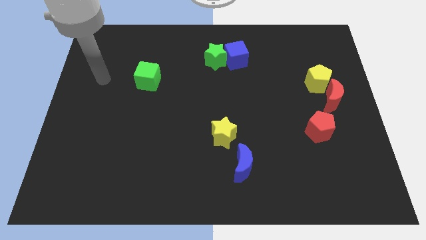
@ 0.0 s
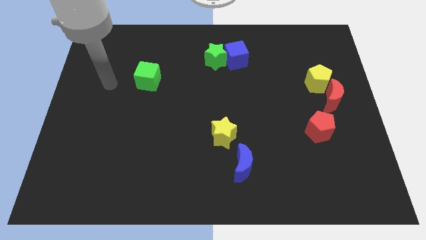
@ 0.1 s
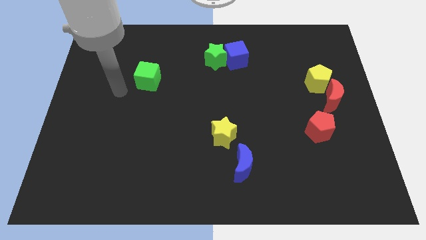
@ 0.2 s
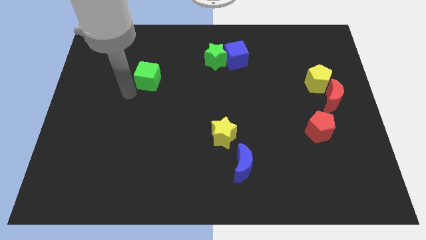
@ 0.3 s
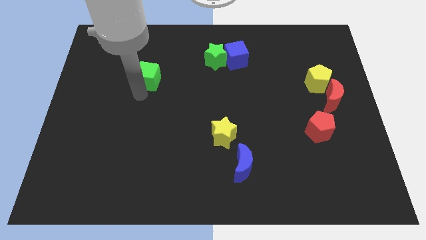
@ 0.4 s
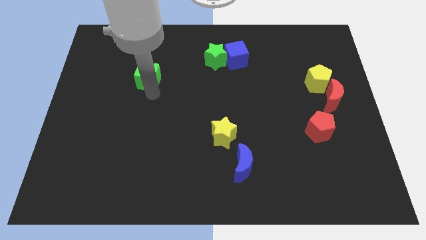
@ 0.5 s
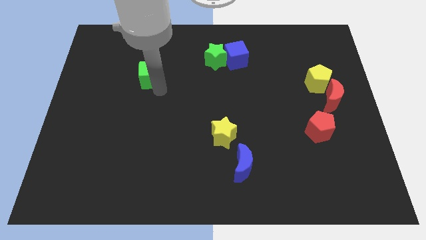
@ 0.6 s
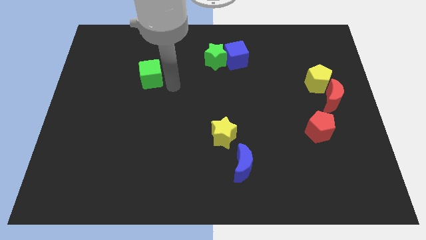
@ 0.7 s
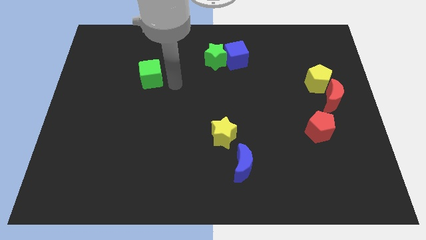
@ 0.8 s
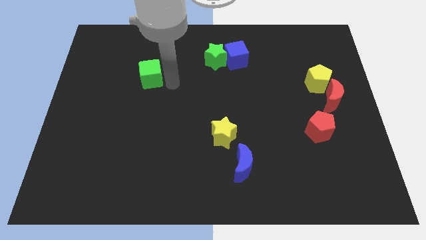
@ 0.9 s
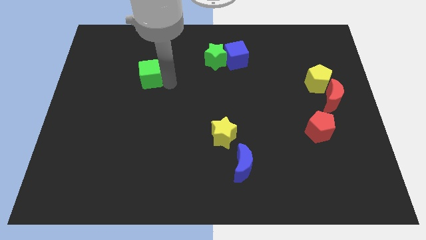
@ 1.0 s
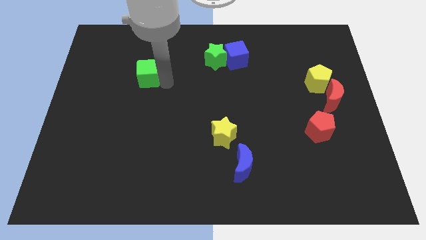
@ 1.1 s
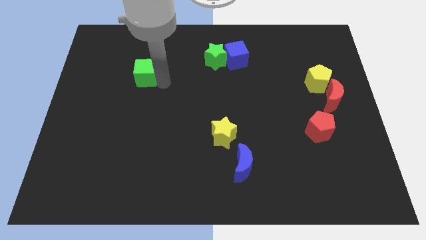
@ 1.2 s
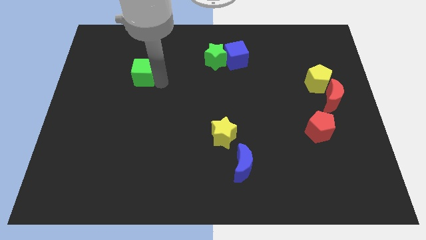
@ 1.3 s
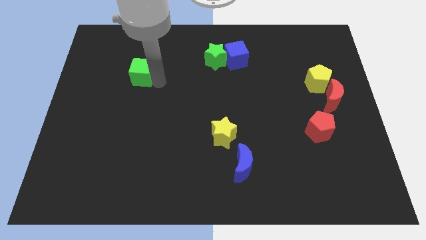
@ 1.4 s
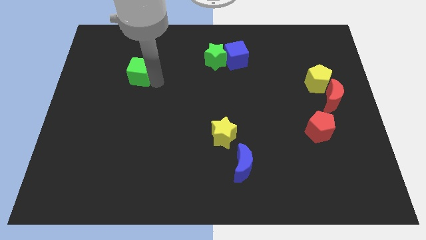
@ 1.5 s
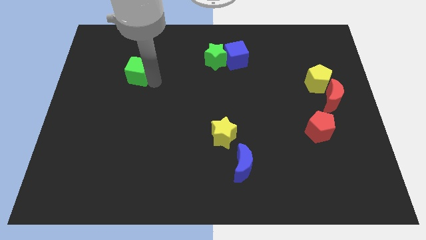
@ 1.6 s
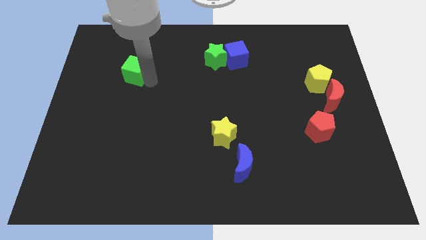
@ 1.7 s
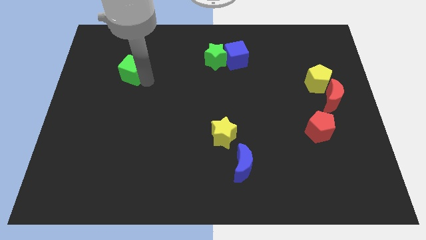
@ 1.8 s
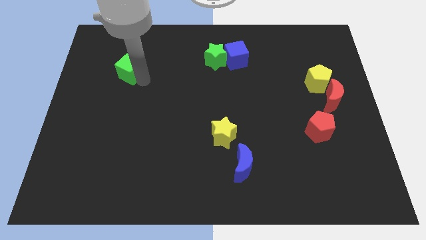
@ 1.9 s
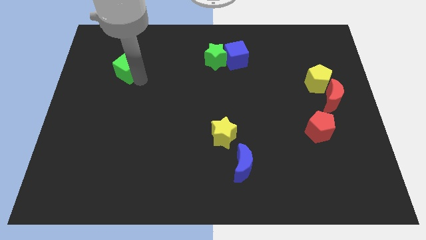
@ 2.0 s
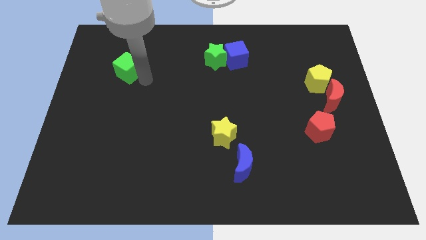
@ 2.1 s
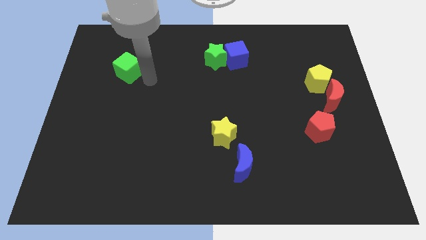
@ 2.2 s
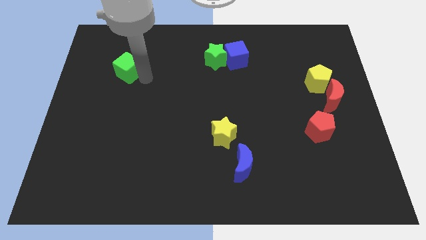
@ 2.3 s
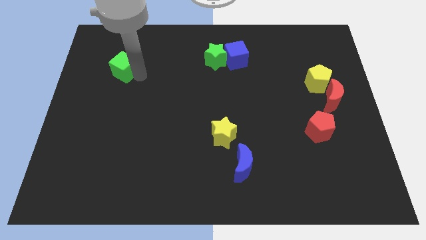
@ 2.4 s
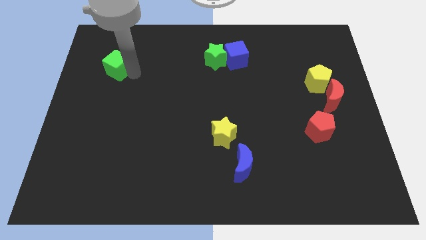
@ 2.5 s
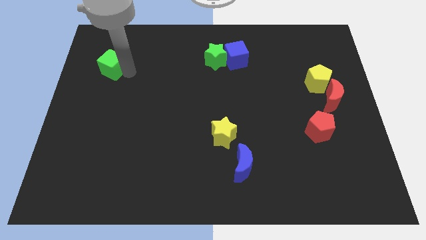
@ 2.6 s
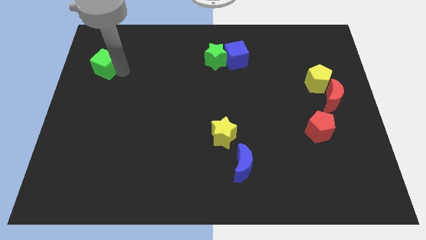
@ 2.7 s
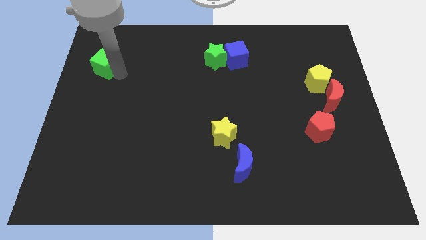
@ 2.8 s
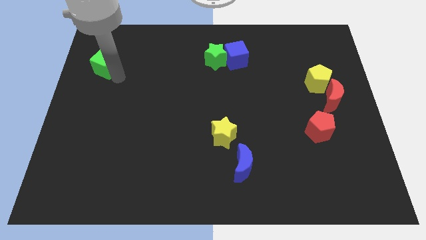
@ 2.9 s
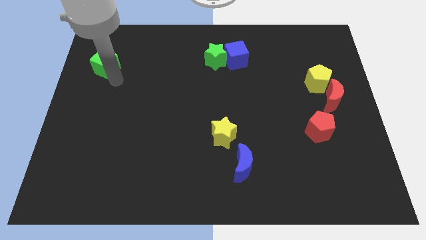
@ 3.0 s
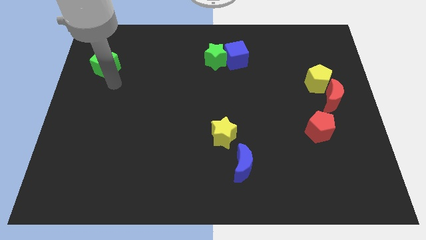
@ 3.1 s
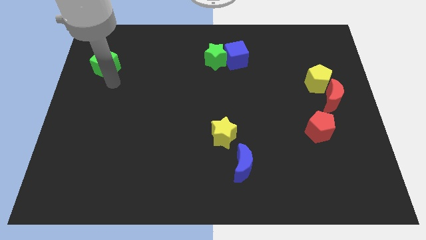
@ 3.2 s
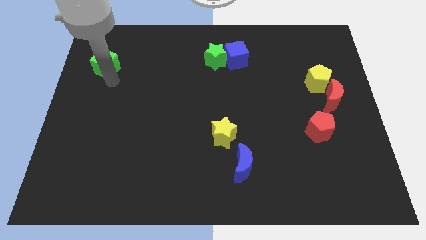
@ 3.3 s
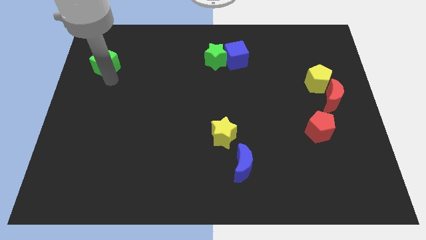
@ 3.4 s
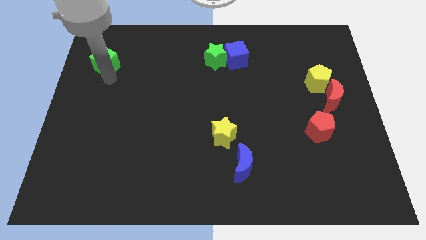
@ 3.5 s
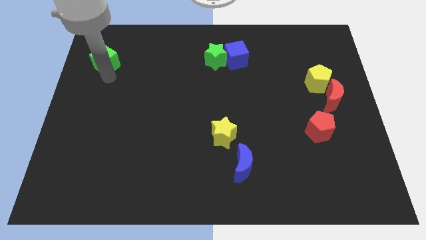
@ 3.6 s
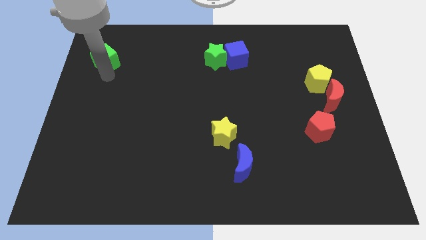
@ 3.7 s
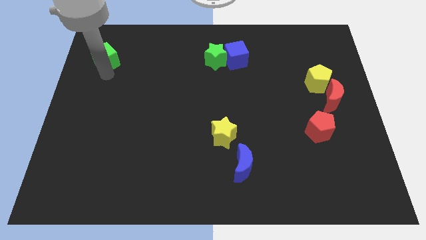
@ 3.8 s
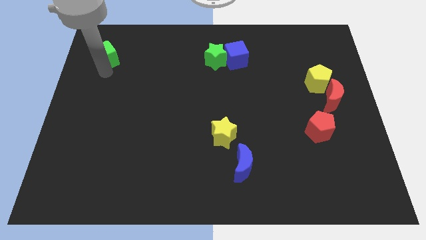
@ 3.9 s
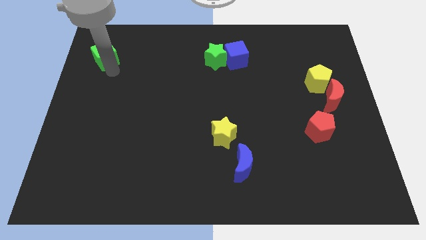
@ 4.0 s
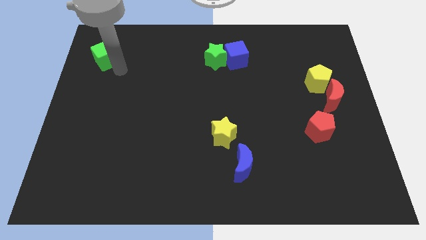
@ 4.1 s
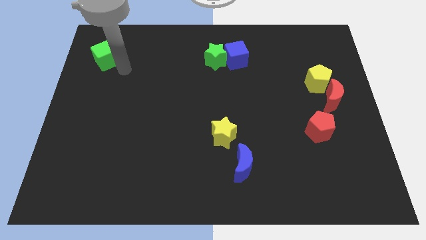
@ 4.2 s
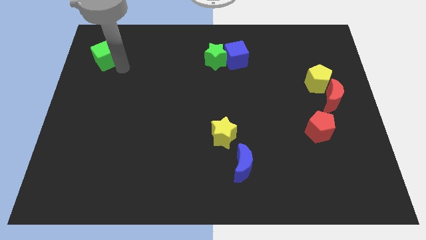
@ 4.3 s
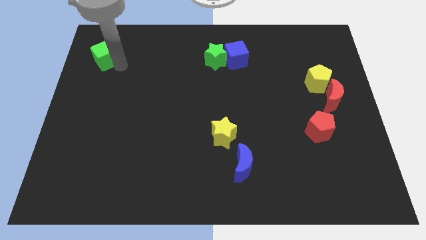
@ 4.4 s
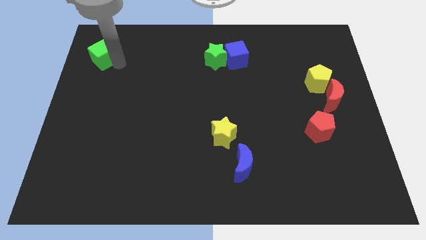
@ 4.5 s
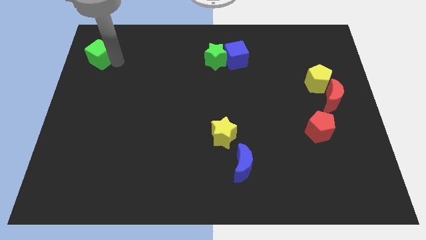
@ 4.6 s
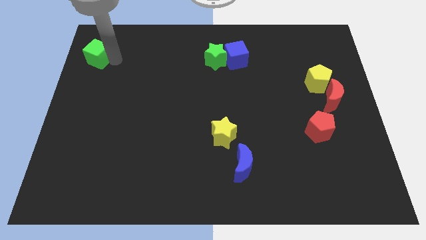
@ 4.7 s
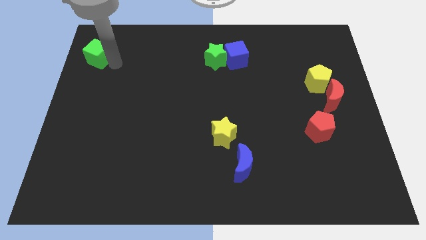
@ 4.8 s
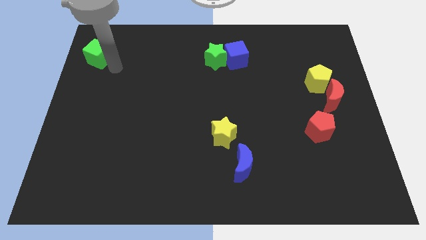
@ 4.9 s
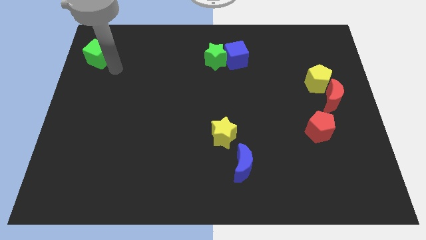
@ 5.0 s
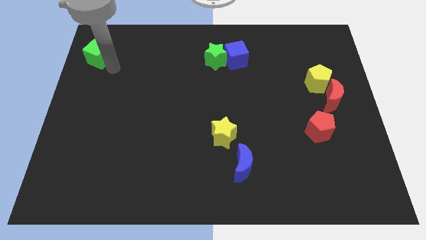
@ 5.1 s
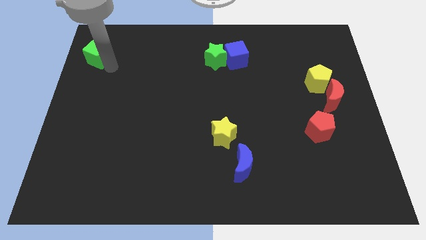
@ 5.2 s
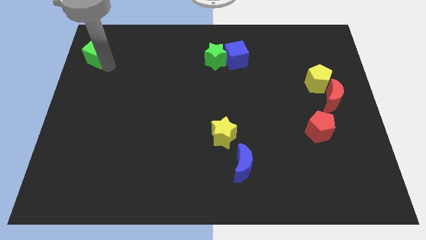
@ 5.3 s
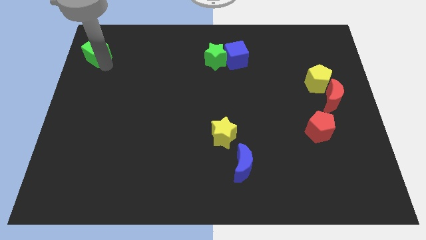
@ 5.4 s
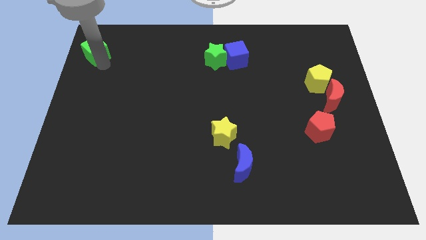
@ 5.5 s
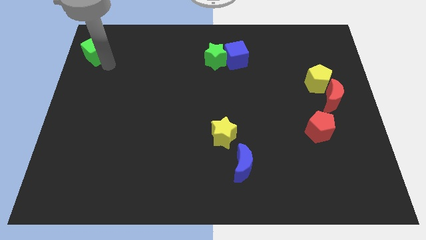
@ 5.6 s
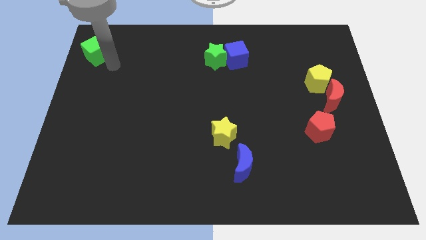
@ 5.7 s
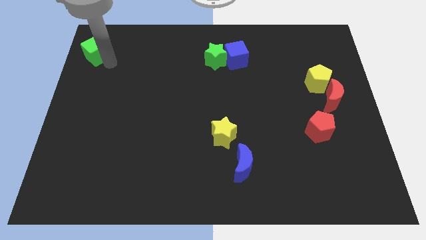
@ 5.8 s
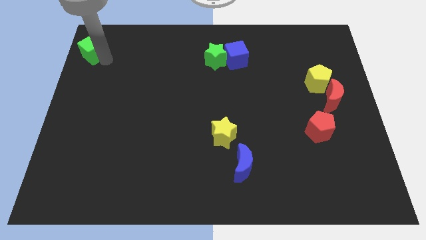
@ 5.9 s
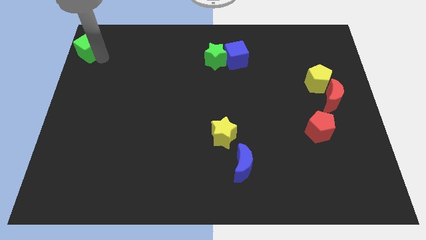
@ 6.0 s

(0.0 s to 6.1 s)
slide the green cube to the top left
